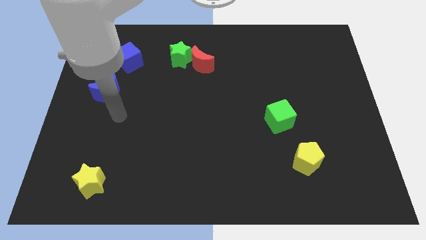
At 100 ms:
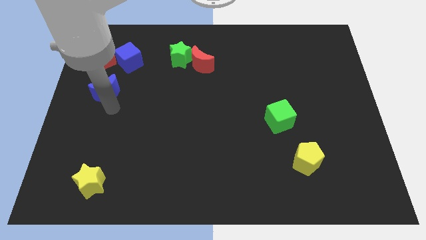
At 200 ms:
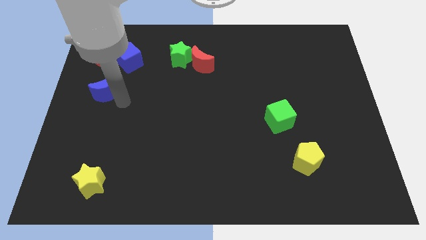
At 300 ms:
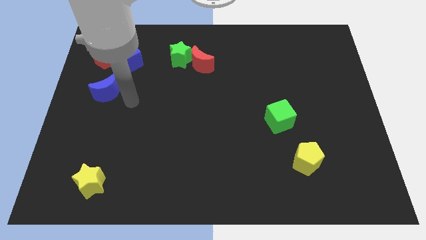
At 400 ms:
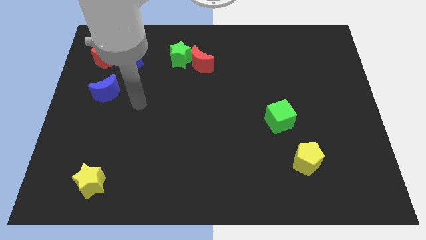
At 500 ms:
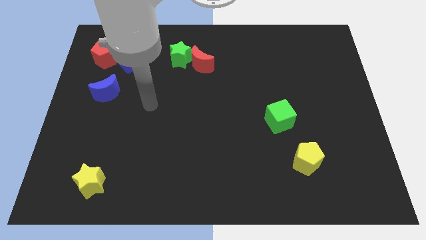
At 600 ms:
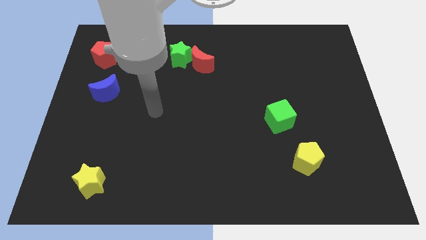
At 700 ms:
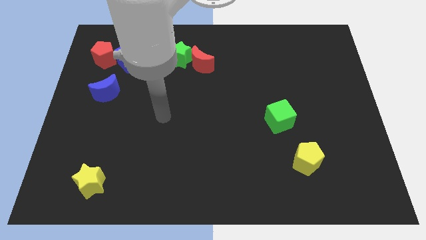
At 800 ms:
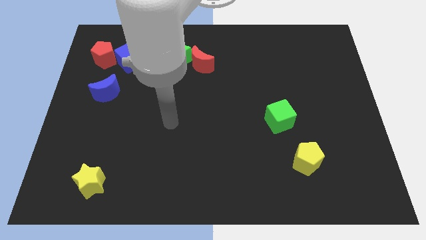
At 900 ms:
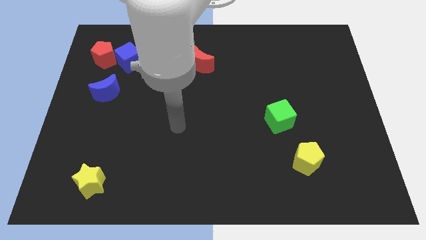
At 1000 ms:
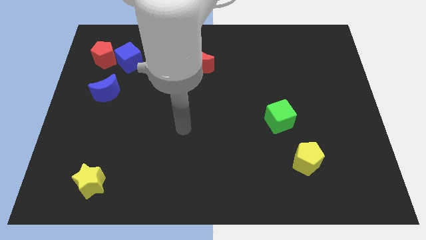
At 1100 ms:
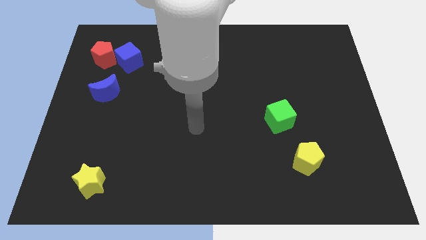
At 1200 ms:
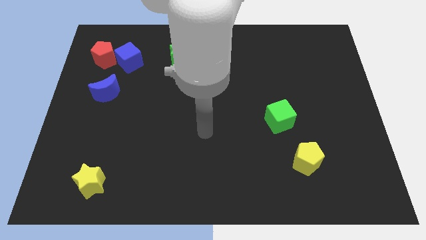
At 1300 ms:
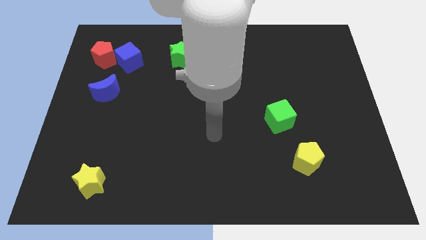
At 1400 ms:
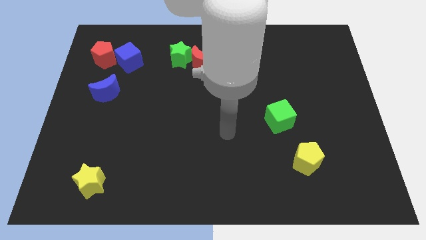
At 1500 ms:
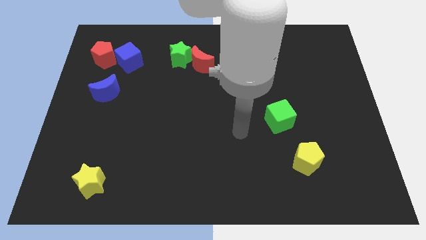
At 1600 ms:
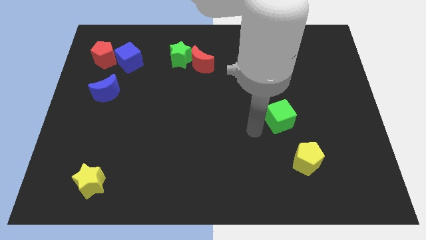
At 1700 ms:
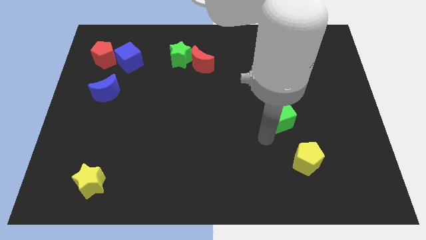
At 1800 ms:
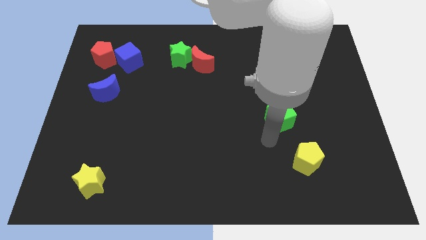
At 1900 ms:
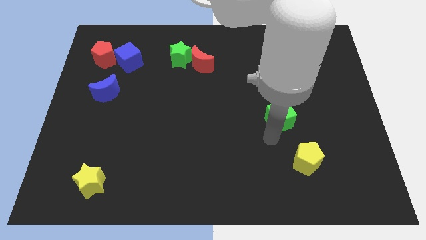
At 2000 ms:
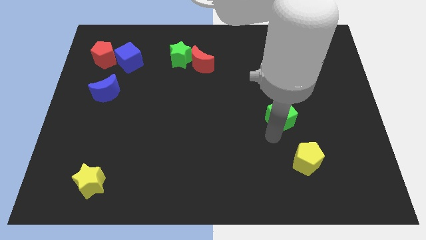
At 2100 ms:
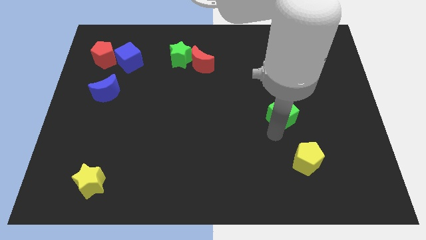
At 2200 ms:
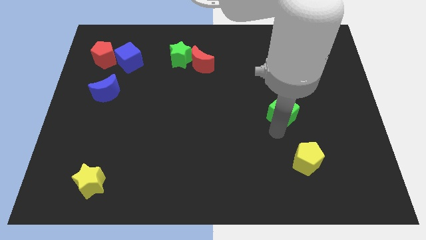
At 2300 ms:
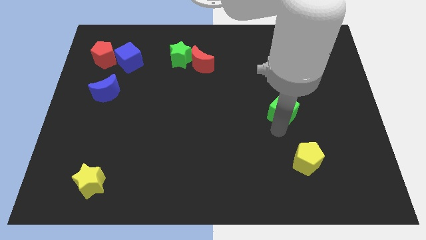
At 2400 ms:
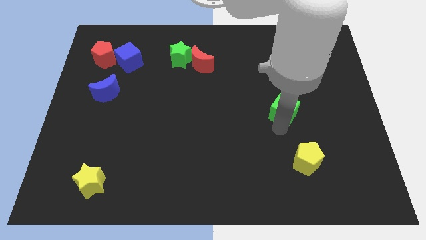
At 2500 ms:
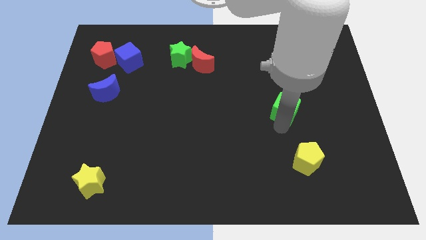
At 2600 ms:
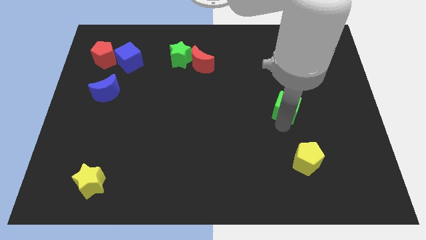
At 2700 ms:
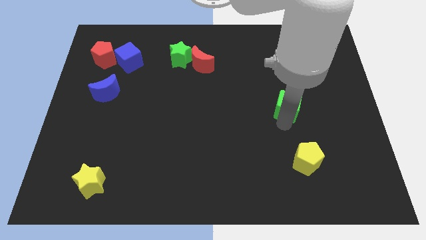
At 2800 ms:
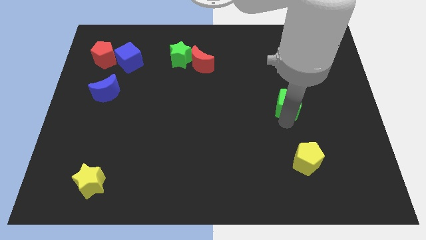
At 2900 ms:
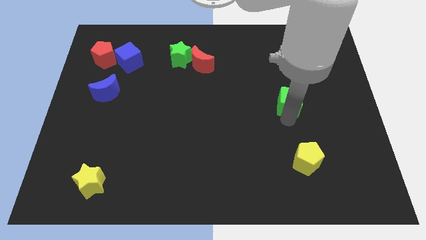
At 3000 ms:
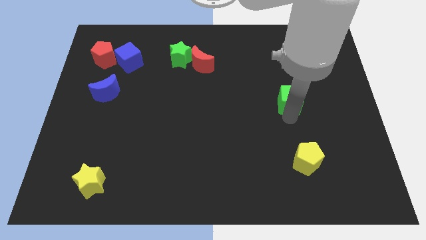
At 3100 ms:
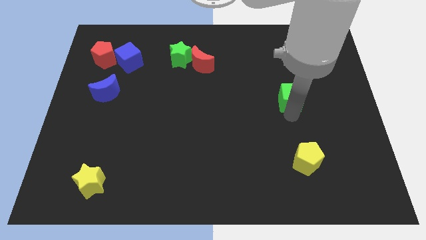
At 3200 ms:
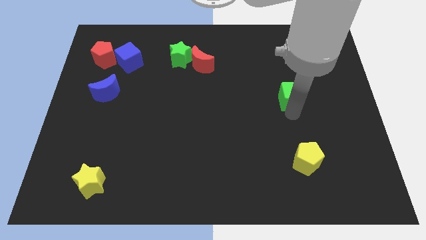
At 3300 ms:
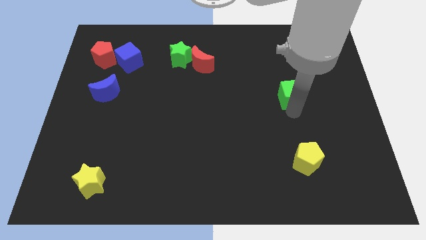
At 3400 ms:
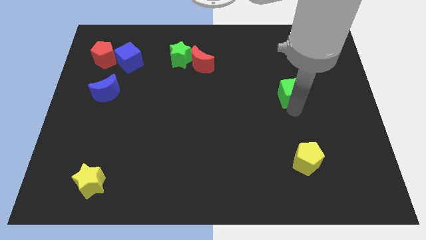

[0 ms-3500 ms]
slide the green cube up a bit

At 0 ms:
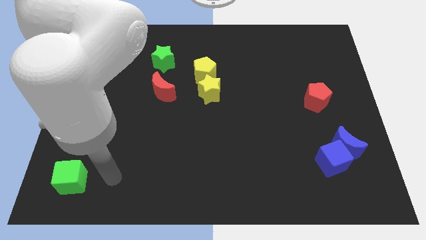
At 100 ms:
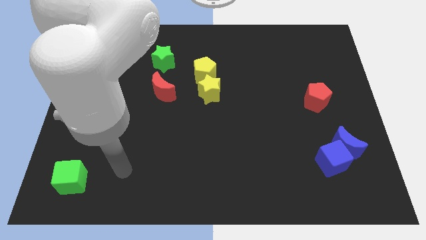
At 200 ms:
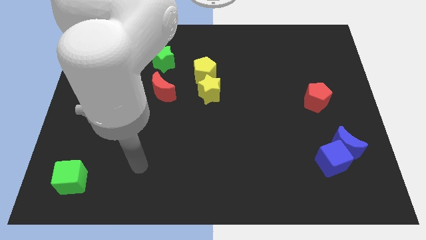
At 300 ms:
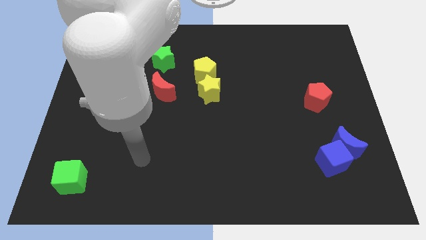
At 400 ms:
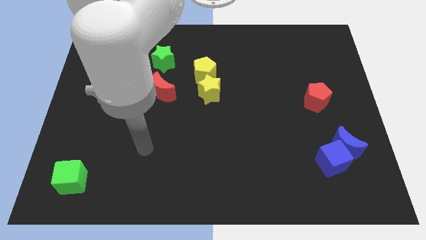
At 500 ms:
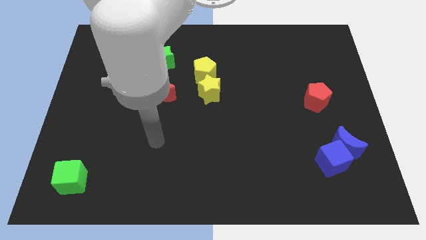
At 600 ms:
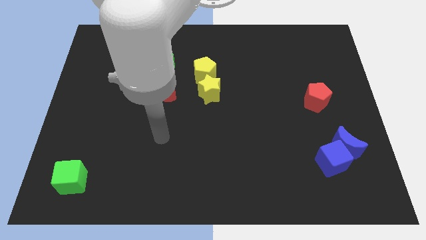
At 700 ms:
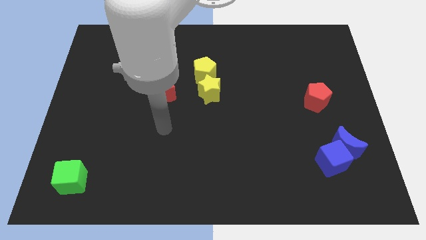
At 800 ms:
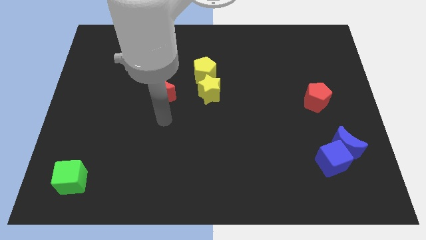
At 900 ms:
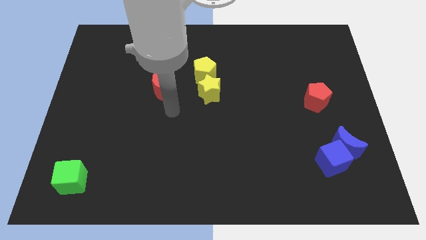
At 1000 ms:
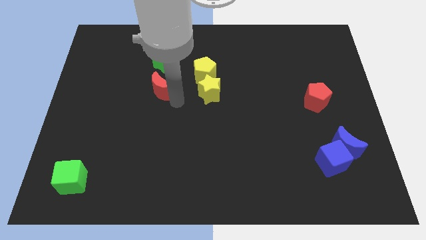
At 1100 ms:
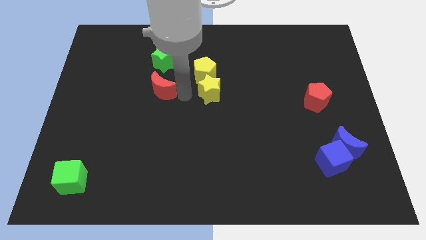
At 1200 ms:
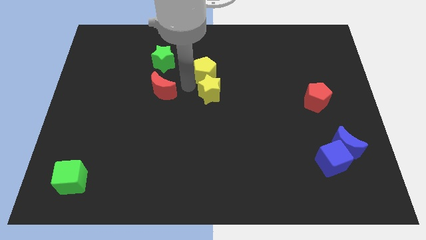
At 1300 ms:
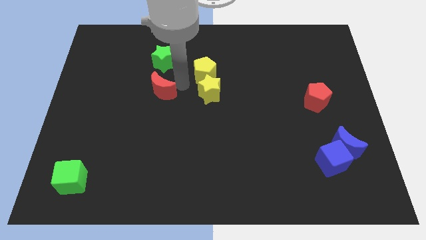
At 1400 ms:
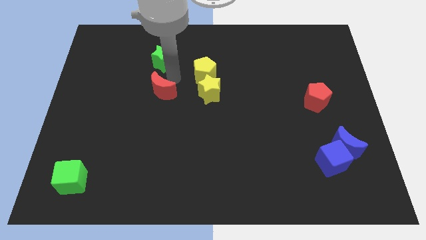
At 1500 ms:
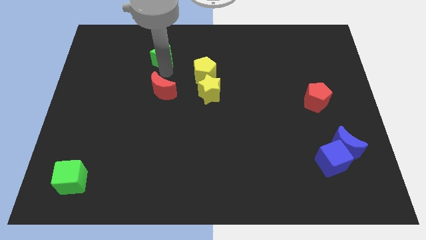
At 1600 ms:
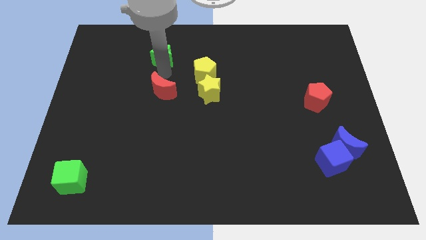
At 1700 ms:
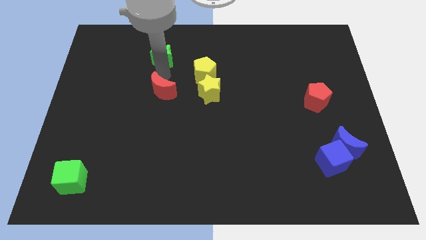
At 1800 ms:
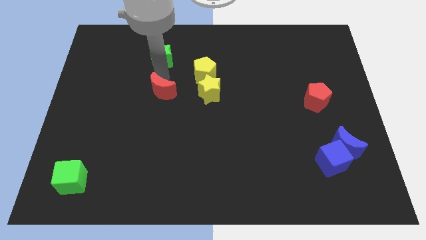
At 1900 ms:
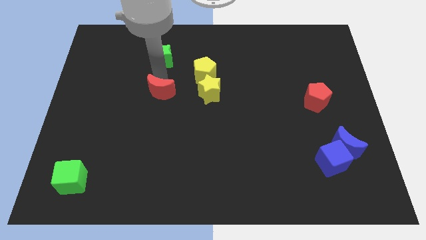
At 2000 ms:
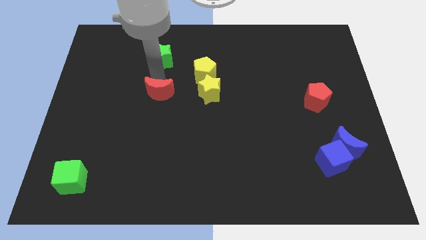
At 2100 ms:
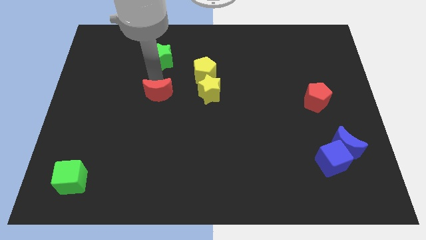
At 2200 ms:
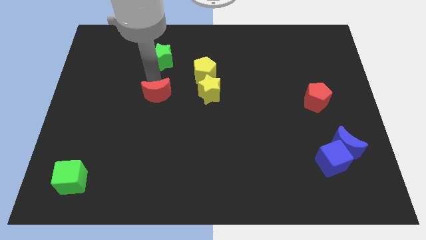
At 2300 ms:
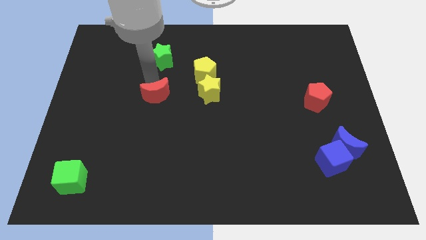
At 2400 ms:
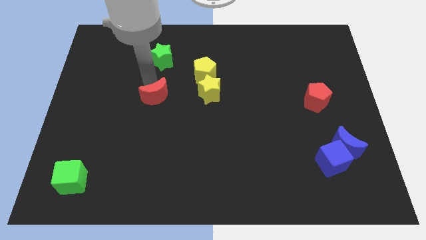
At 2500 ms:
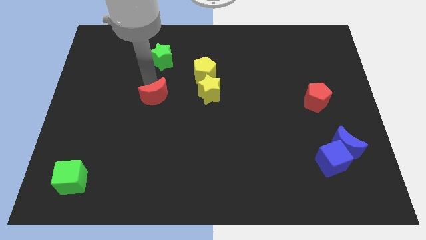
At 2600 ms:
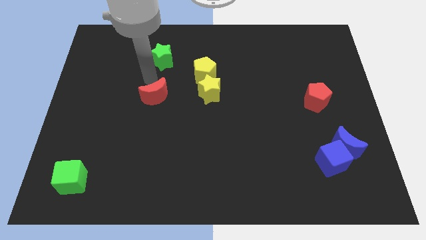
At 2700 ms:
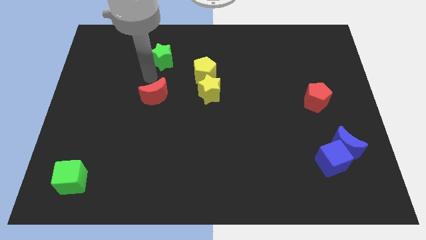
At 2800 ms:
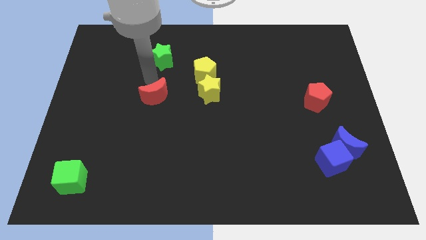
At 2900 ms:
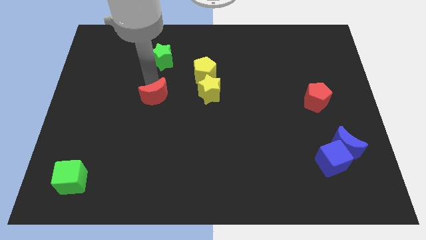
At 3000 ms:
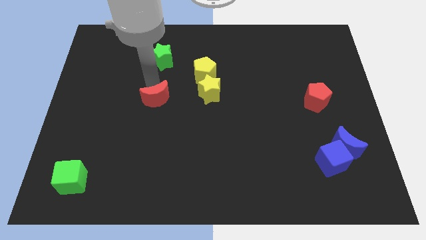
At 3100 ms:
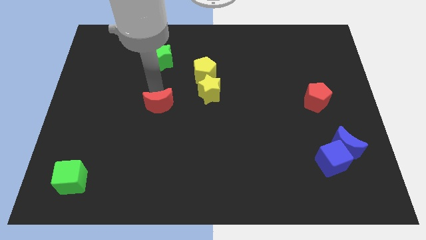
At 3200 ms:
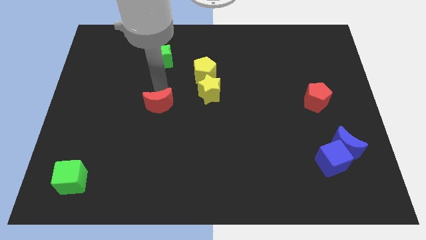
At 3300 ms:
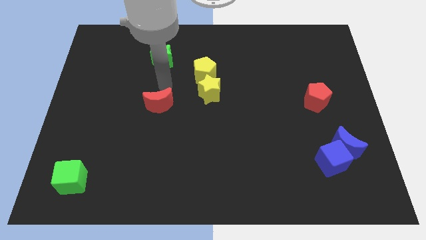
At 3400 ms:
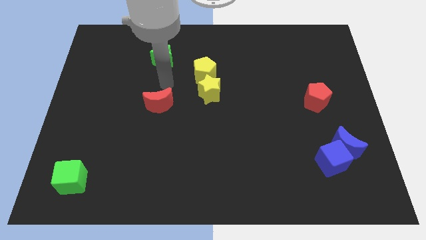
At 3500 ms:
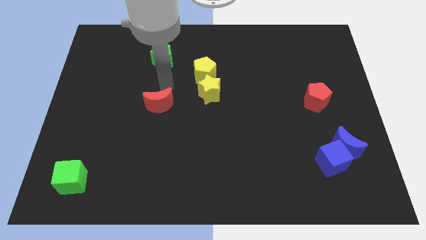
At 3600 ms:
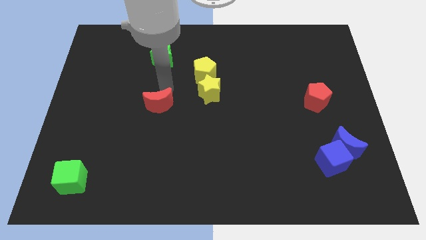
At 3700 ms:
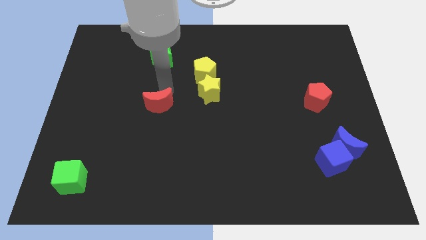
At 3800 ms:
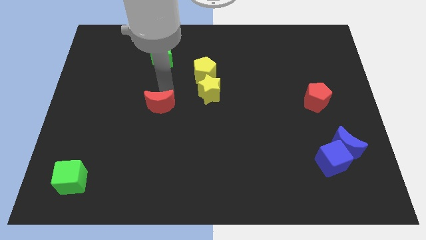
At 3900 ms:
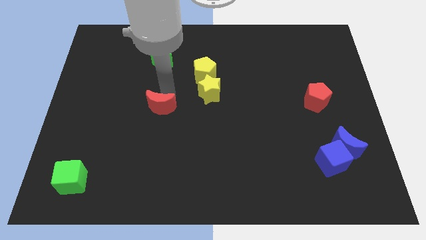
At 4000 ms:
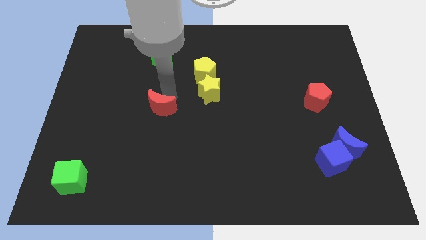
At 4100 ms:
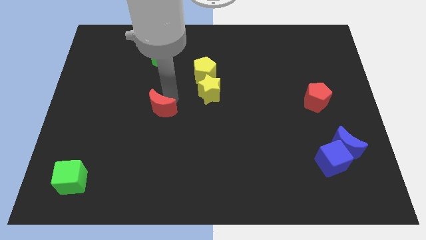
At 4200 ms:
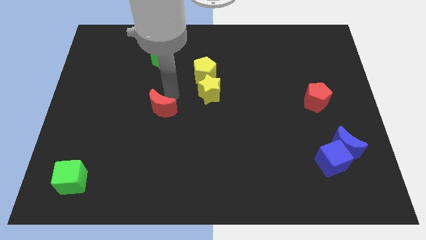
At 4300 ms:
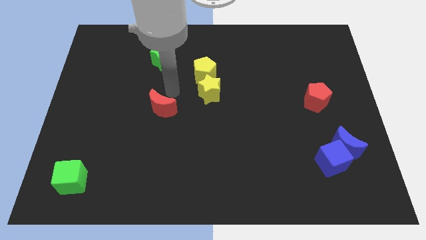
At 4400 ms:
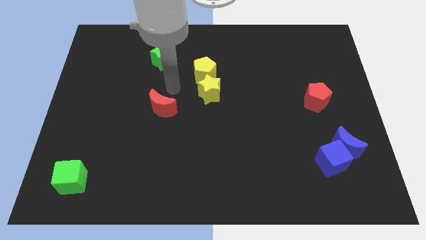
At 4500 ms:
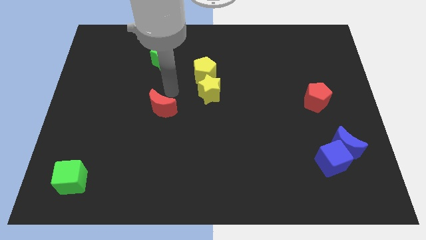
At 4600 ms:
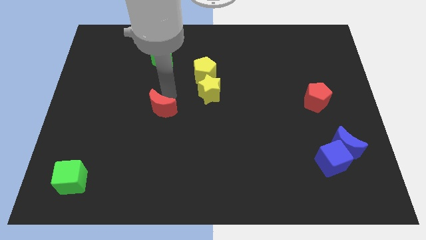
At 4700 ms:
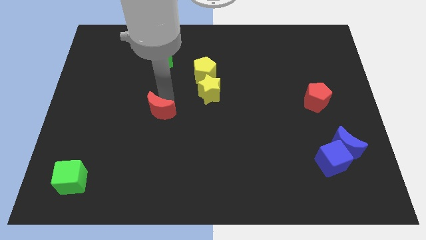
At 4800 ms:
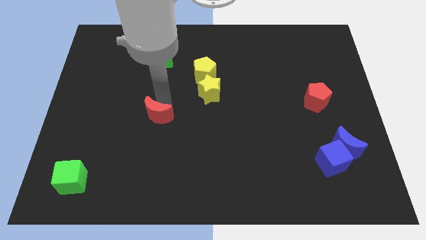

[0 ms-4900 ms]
move the red moon somewhat down
